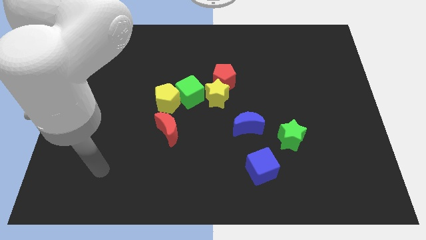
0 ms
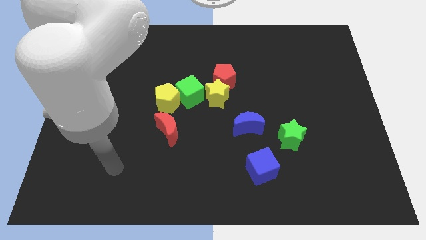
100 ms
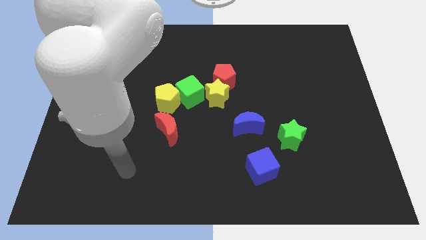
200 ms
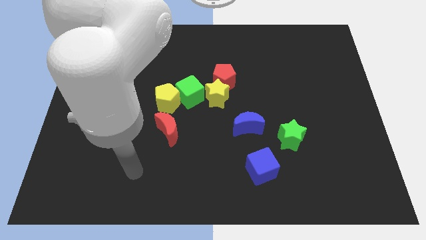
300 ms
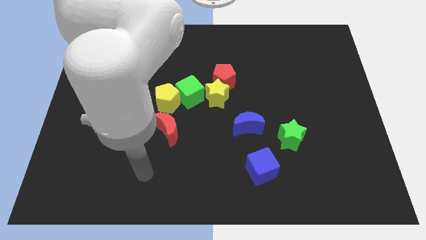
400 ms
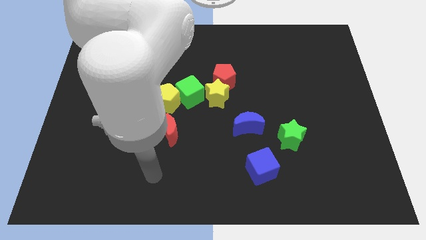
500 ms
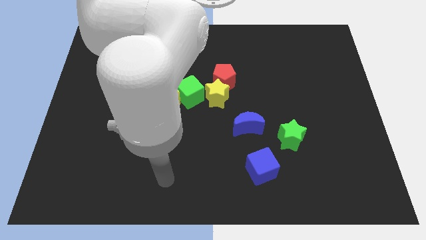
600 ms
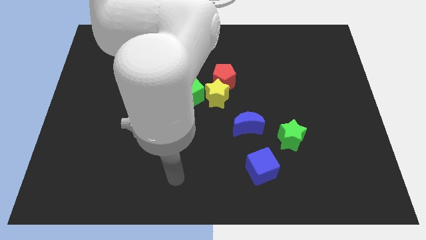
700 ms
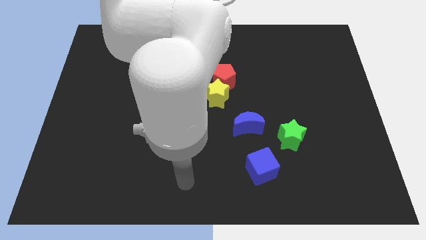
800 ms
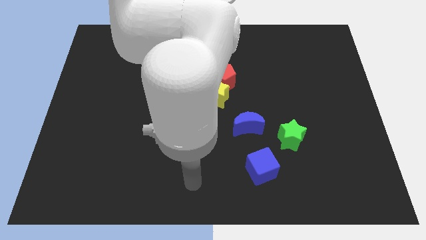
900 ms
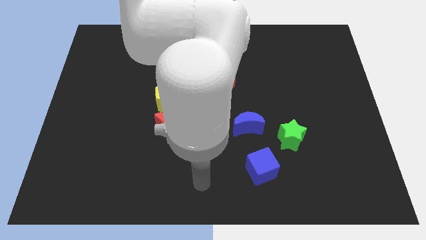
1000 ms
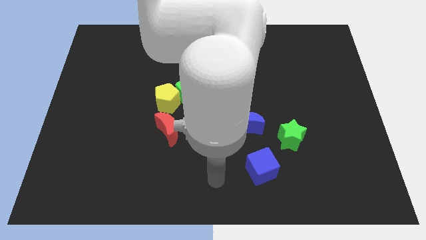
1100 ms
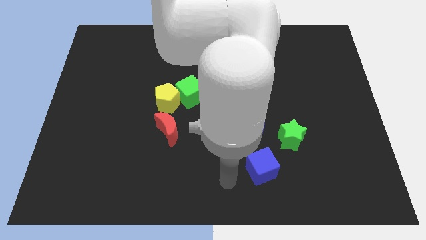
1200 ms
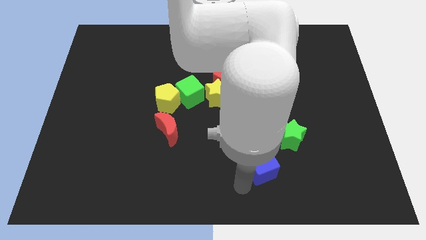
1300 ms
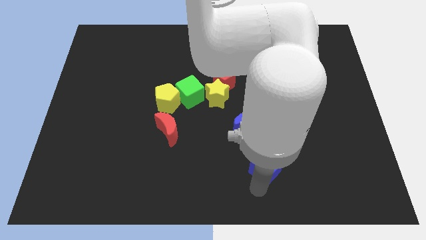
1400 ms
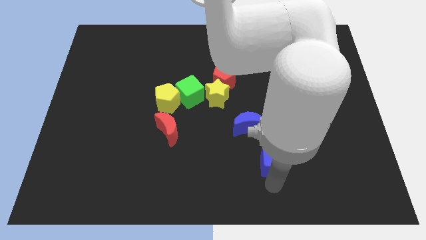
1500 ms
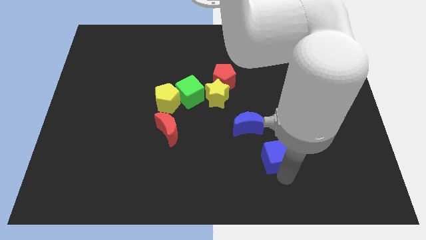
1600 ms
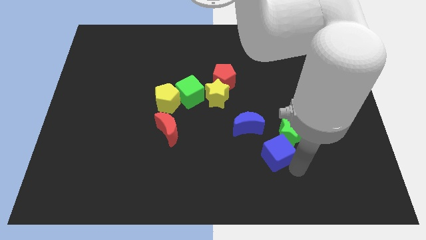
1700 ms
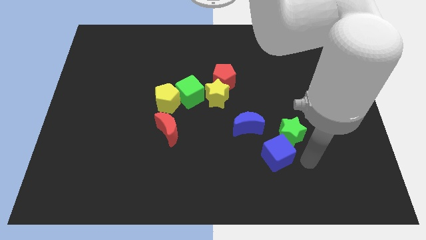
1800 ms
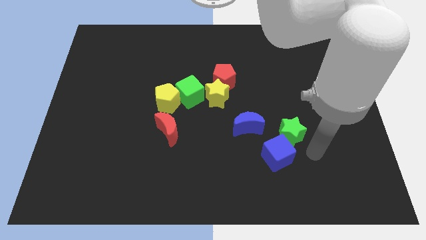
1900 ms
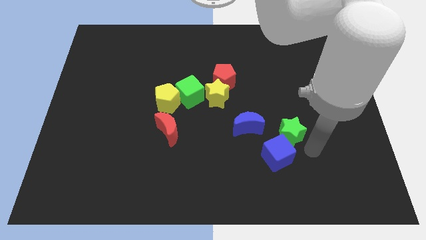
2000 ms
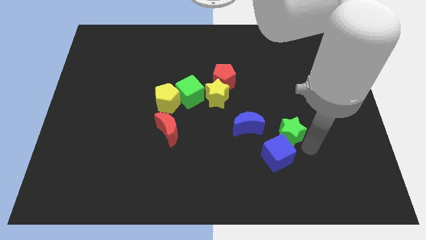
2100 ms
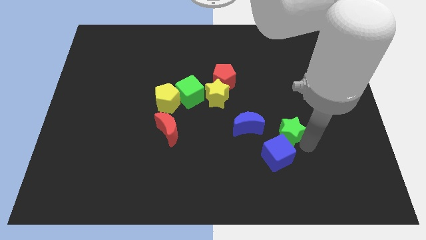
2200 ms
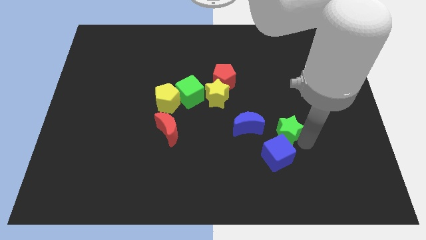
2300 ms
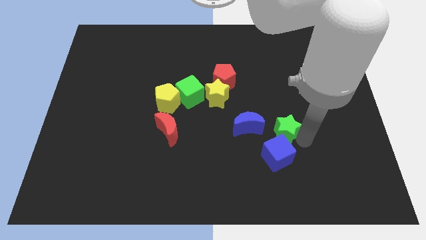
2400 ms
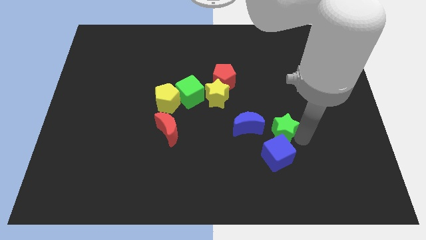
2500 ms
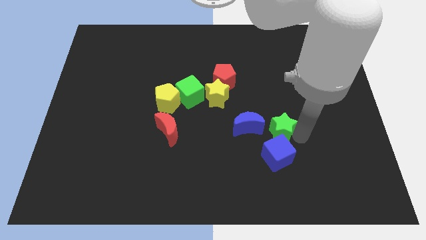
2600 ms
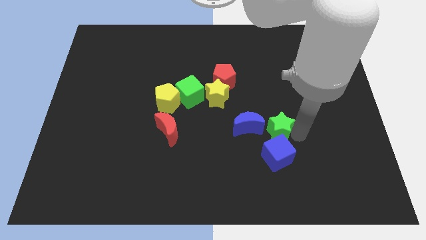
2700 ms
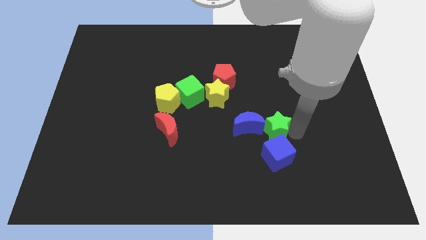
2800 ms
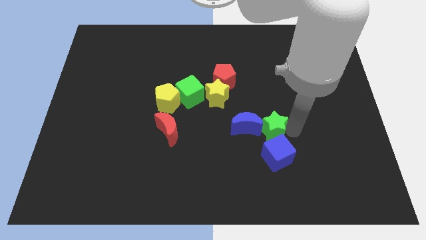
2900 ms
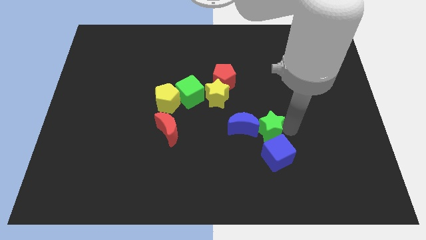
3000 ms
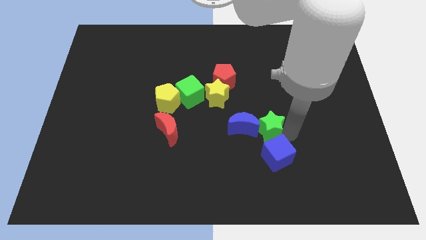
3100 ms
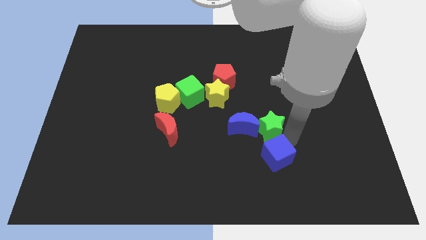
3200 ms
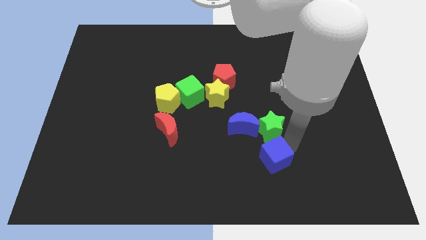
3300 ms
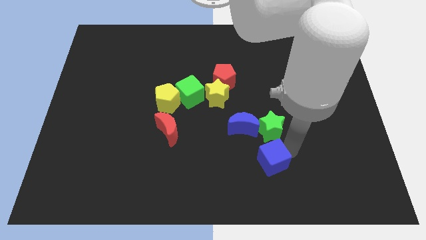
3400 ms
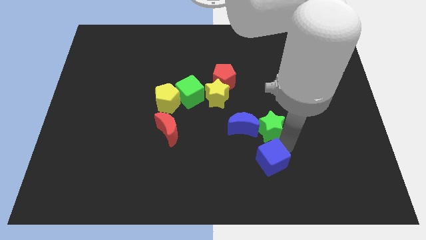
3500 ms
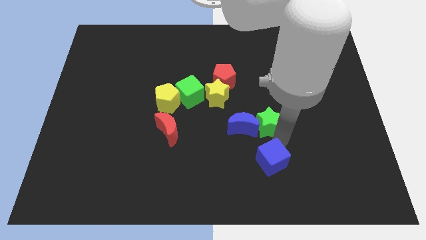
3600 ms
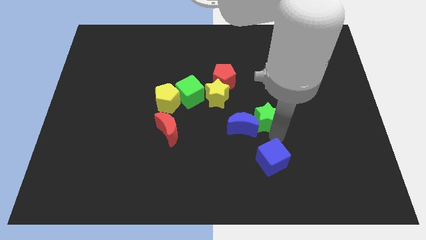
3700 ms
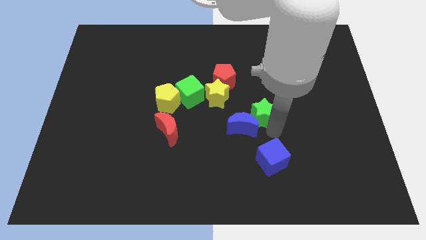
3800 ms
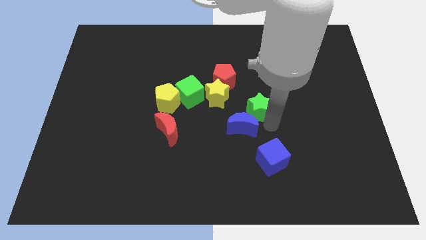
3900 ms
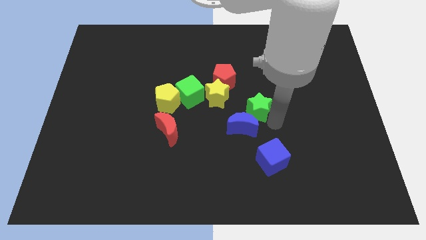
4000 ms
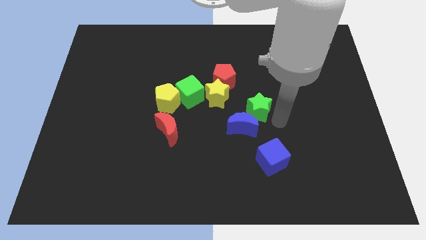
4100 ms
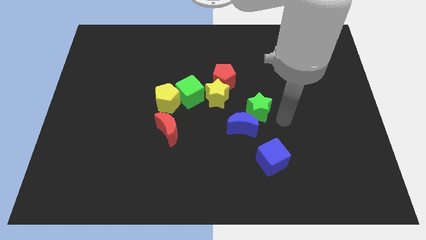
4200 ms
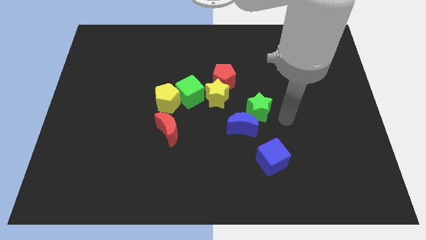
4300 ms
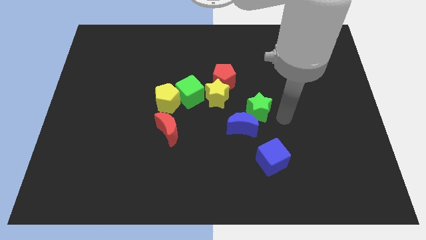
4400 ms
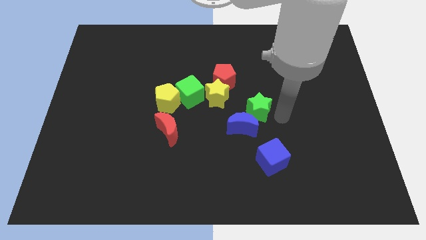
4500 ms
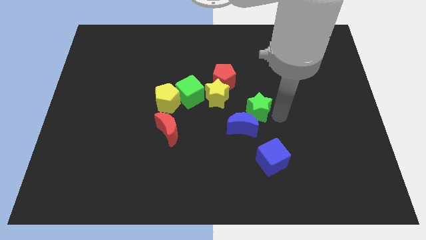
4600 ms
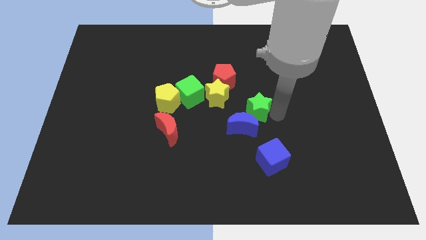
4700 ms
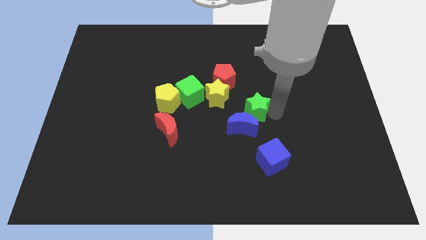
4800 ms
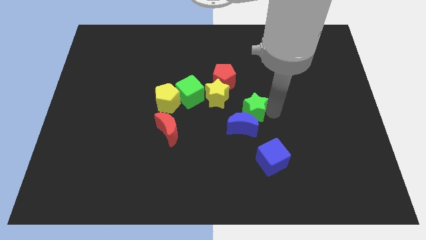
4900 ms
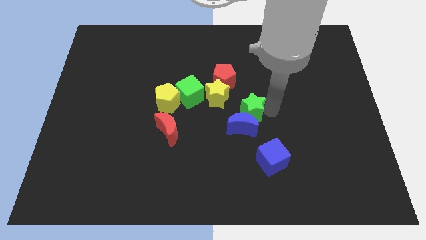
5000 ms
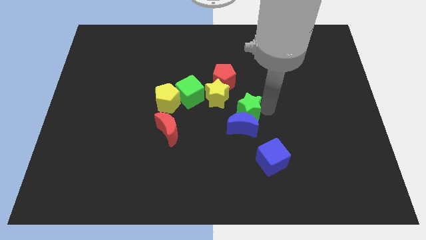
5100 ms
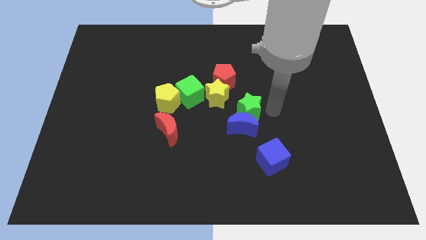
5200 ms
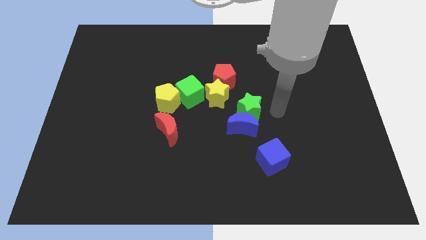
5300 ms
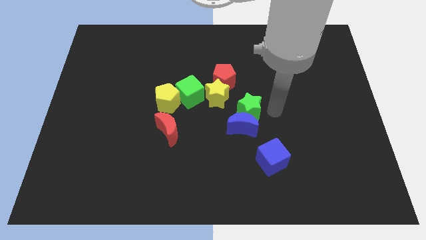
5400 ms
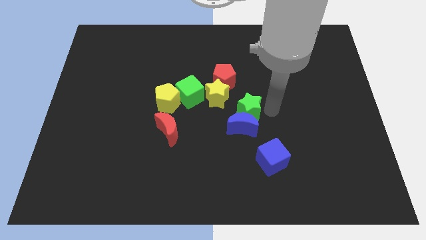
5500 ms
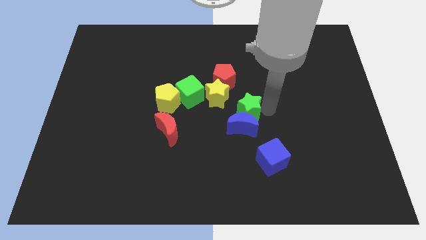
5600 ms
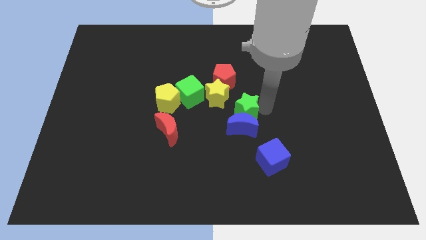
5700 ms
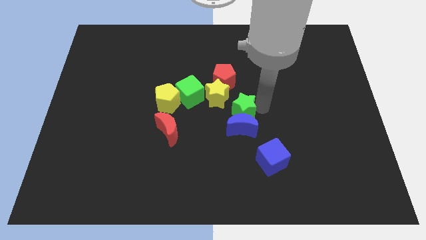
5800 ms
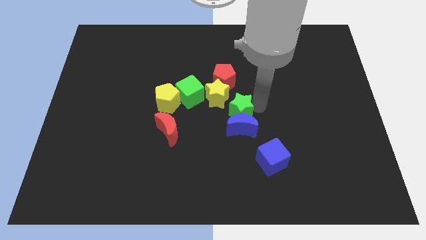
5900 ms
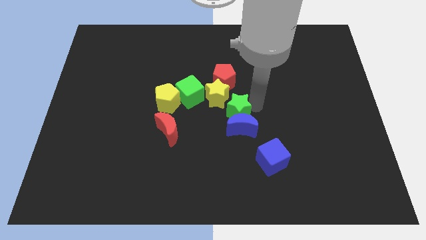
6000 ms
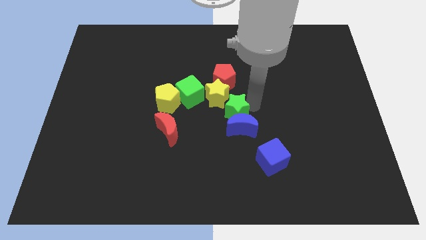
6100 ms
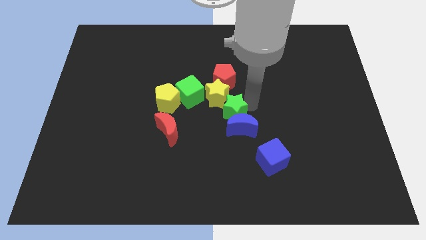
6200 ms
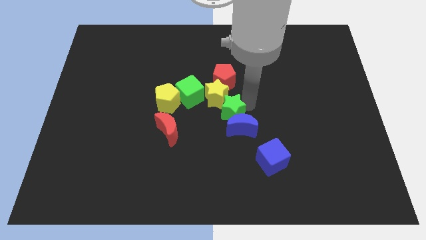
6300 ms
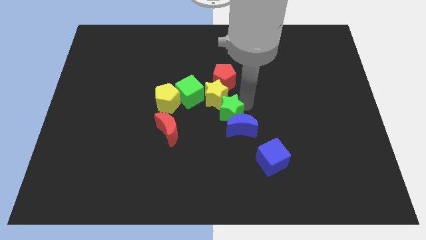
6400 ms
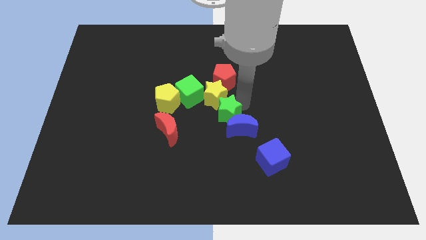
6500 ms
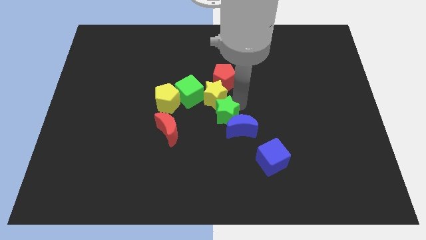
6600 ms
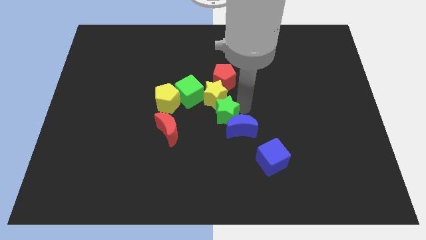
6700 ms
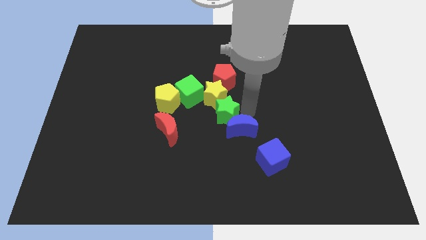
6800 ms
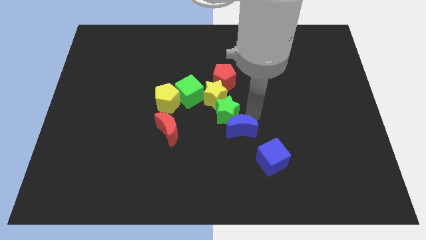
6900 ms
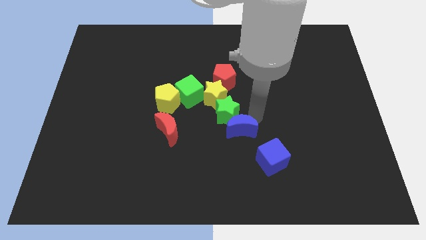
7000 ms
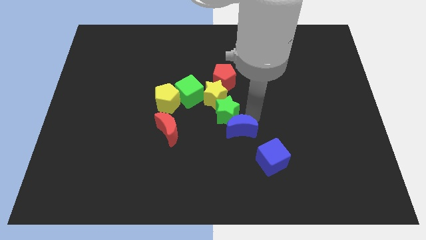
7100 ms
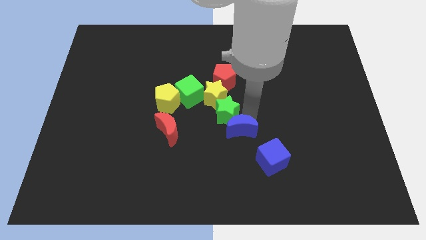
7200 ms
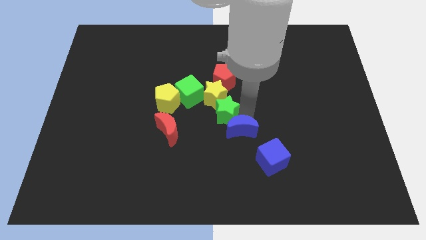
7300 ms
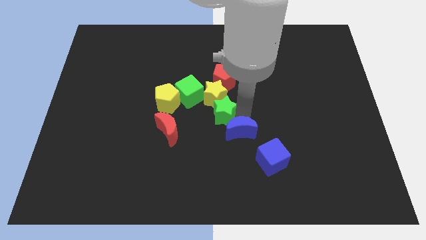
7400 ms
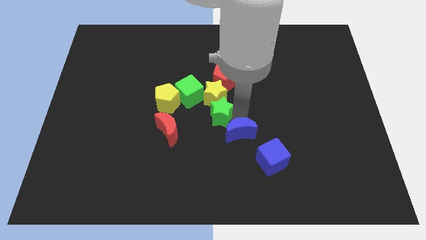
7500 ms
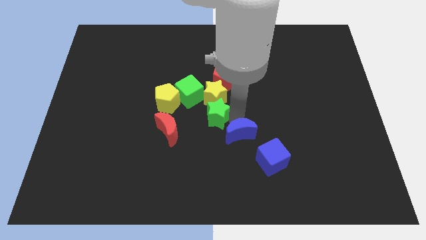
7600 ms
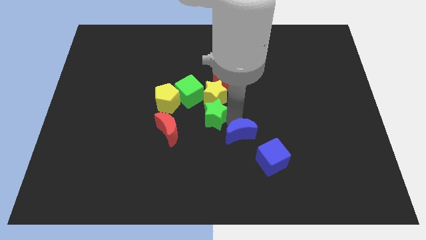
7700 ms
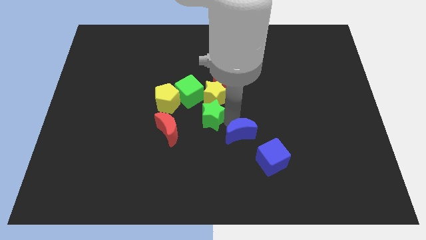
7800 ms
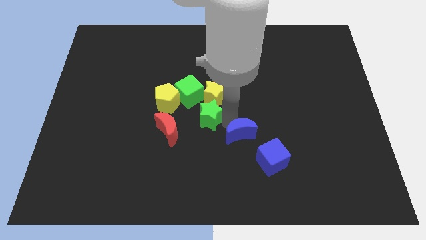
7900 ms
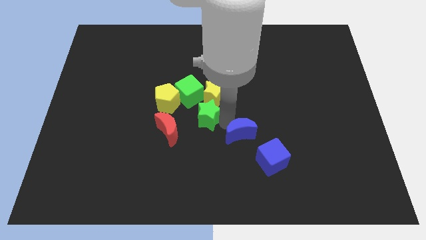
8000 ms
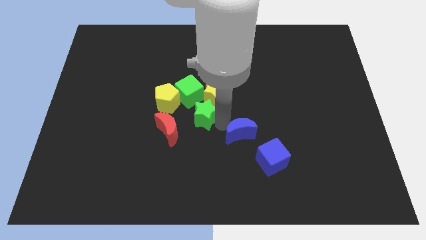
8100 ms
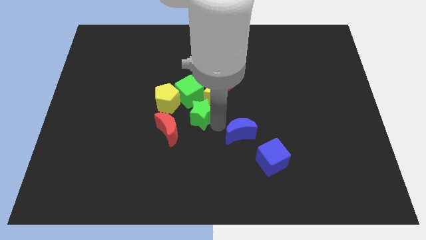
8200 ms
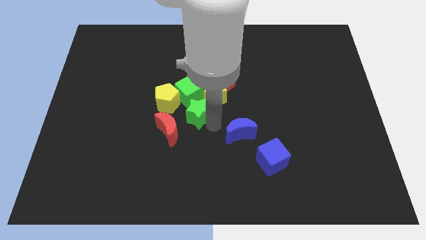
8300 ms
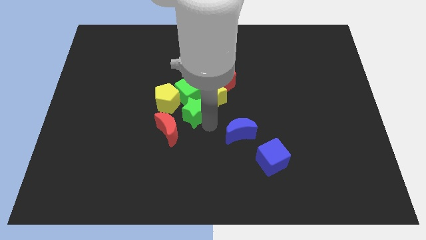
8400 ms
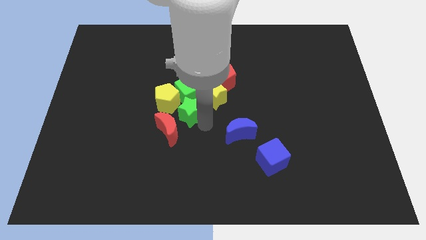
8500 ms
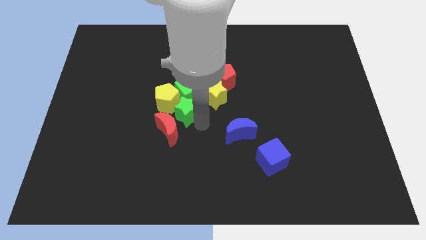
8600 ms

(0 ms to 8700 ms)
slide the green star close to the yellow pentagon
